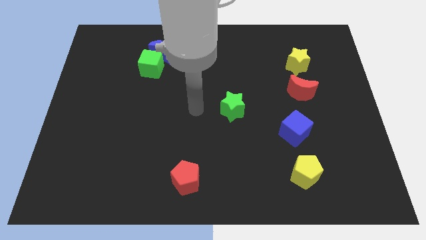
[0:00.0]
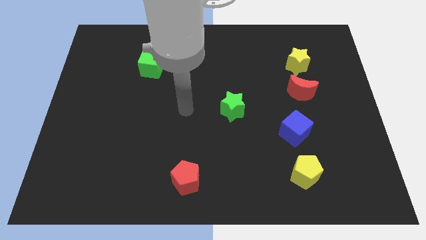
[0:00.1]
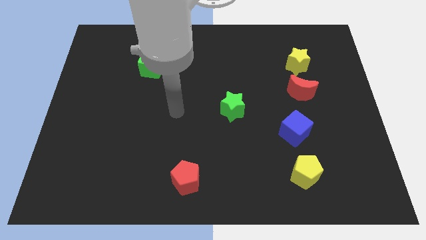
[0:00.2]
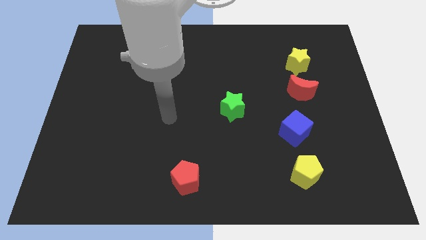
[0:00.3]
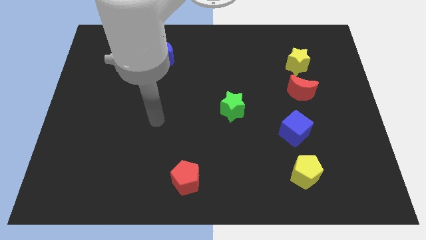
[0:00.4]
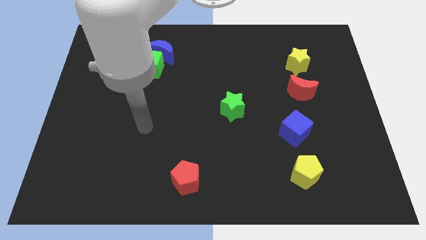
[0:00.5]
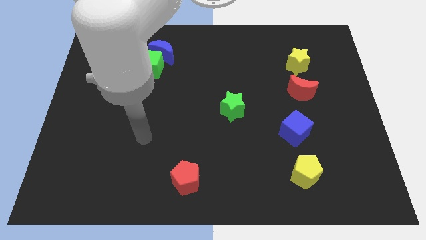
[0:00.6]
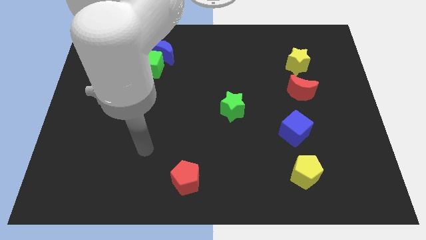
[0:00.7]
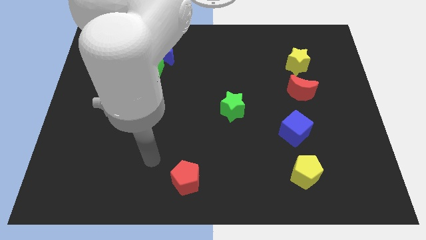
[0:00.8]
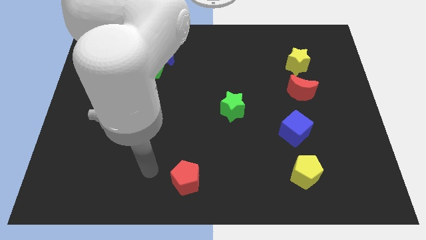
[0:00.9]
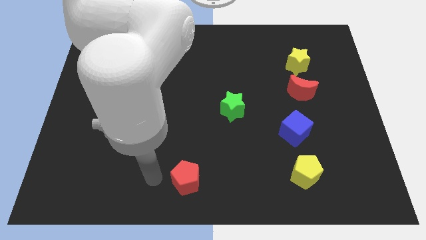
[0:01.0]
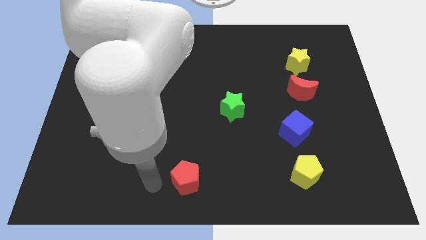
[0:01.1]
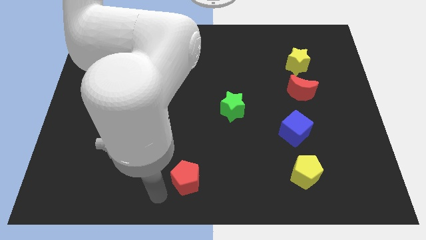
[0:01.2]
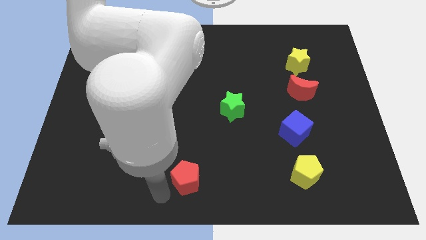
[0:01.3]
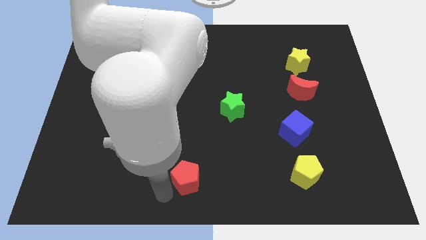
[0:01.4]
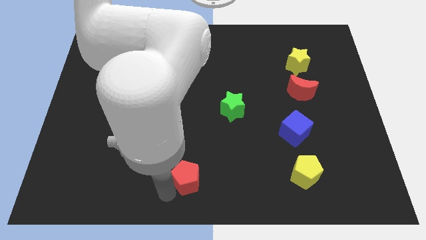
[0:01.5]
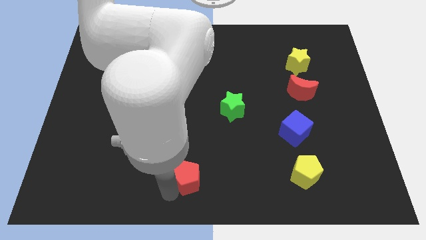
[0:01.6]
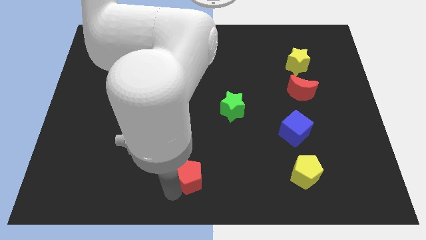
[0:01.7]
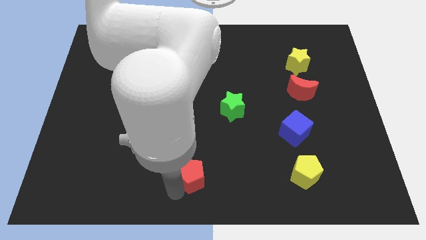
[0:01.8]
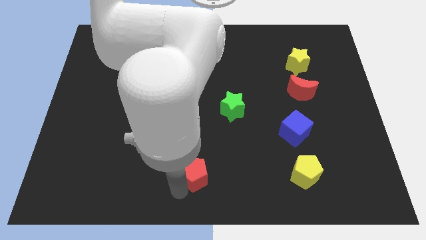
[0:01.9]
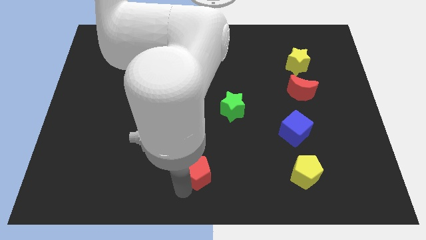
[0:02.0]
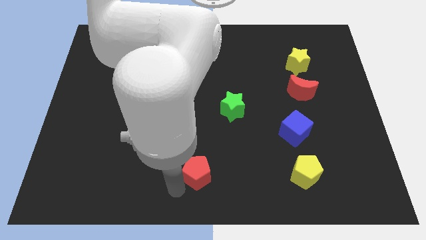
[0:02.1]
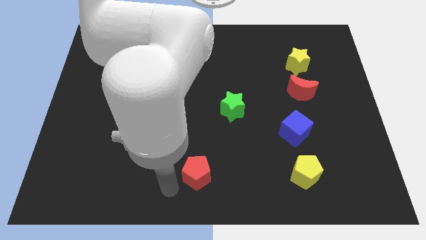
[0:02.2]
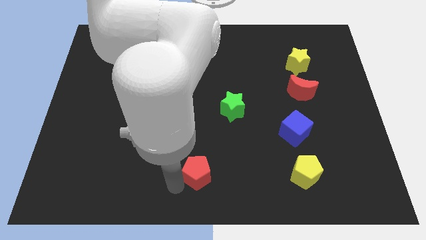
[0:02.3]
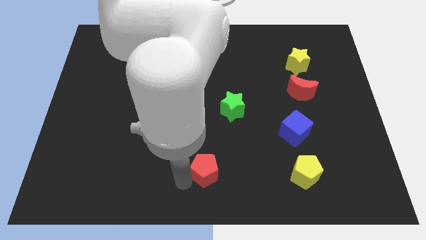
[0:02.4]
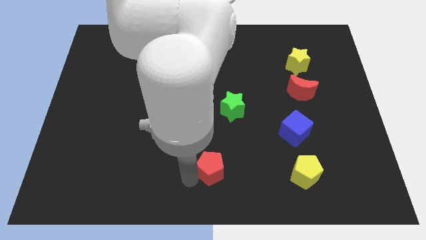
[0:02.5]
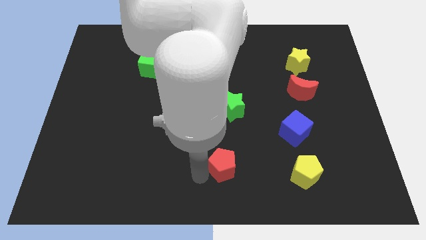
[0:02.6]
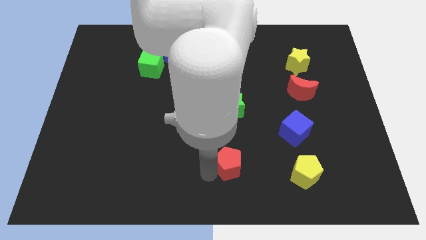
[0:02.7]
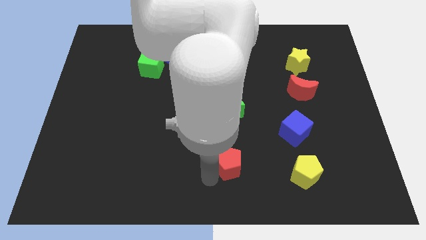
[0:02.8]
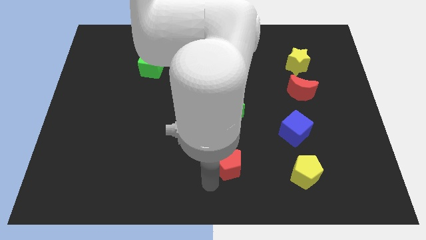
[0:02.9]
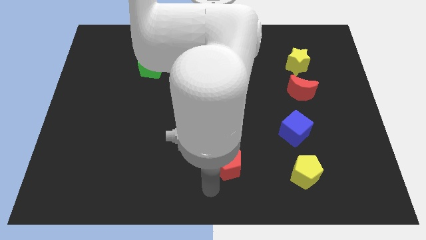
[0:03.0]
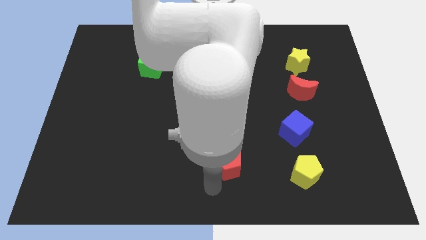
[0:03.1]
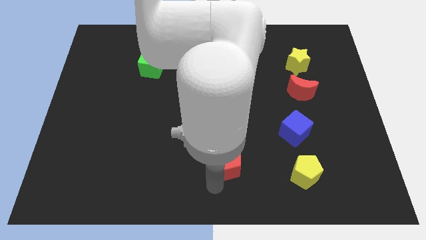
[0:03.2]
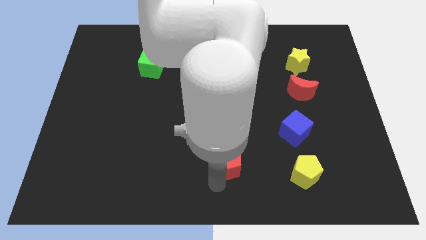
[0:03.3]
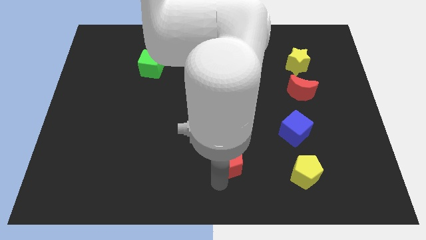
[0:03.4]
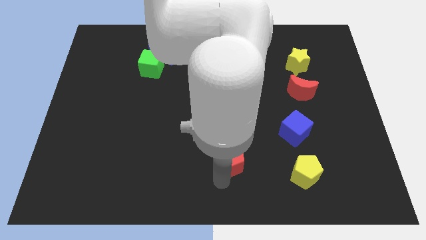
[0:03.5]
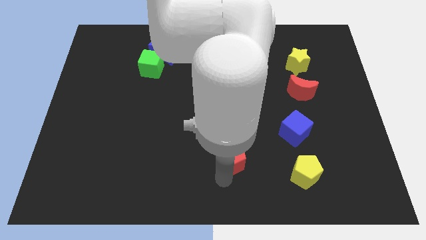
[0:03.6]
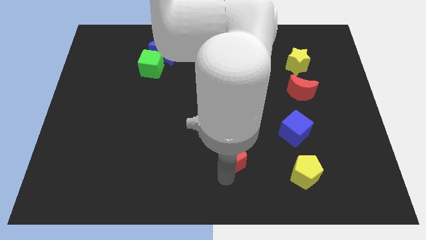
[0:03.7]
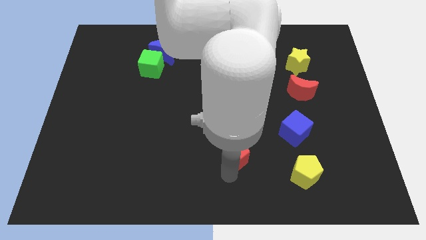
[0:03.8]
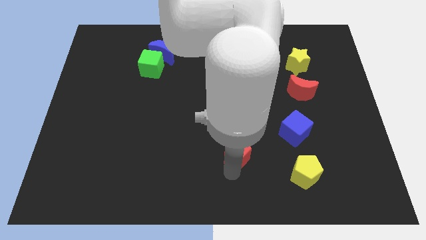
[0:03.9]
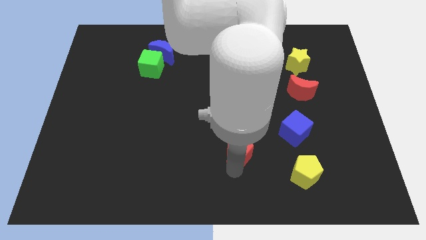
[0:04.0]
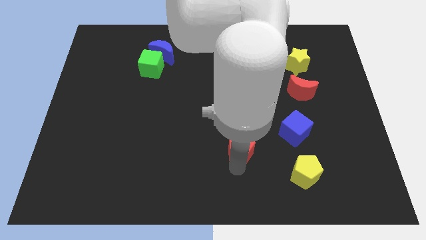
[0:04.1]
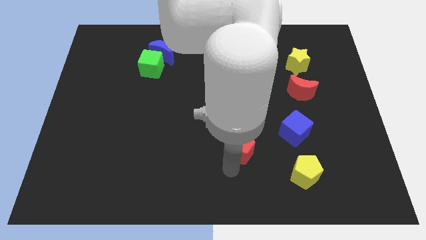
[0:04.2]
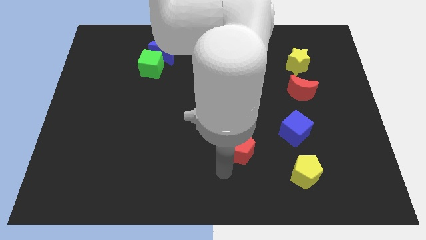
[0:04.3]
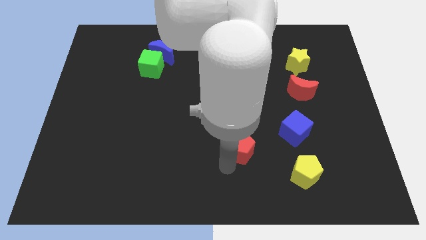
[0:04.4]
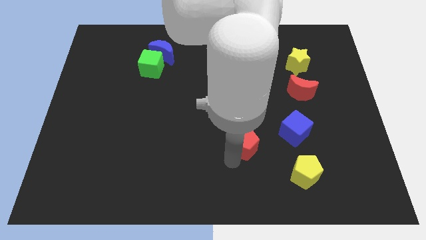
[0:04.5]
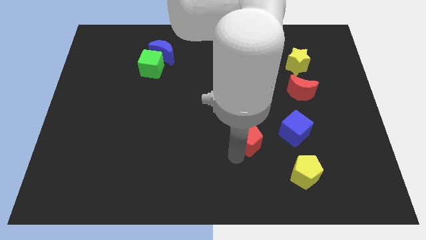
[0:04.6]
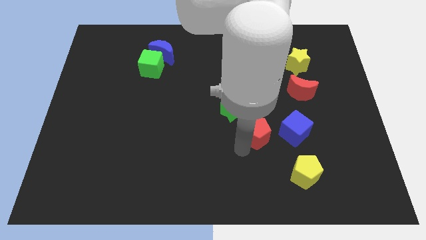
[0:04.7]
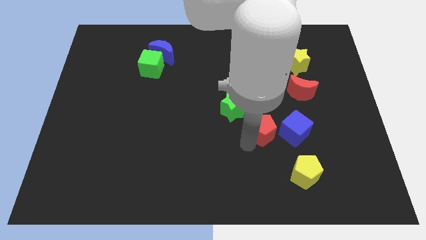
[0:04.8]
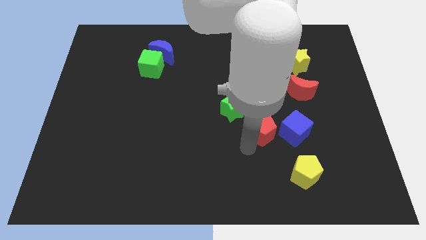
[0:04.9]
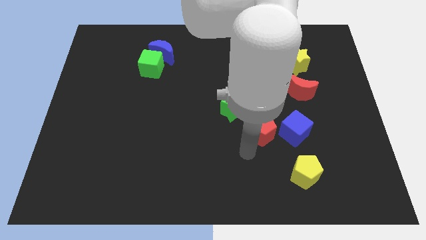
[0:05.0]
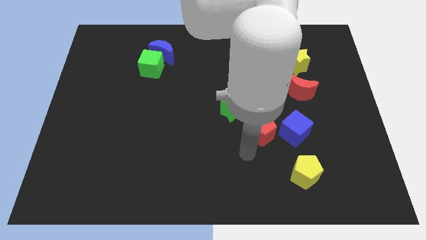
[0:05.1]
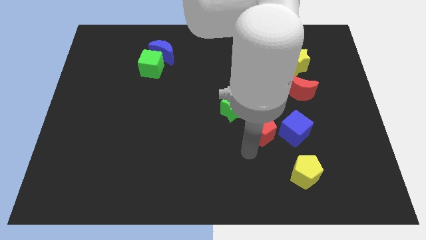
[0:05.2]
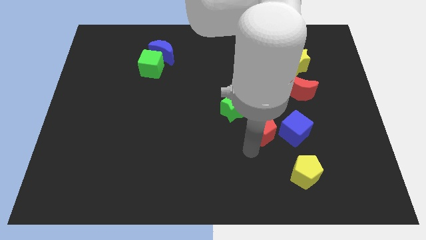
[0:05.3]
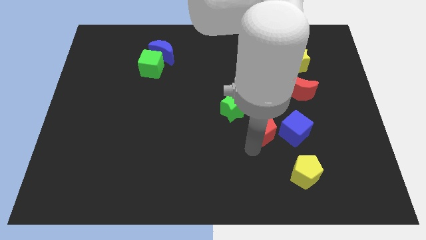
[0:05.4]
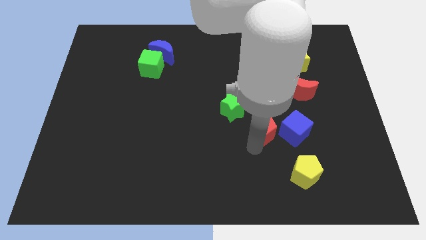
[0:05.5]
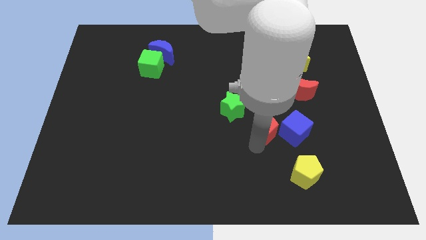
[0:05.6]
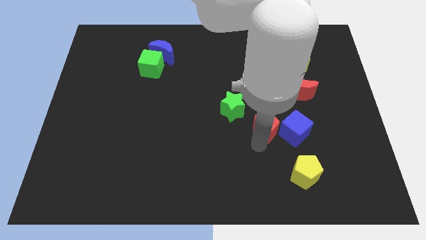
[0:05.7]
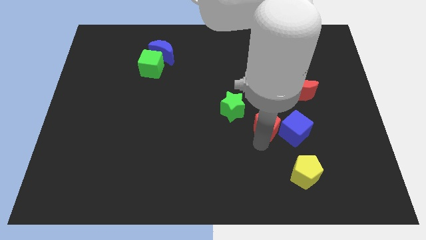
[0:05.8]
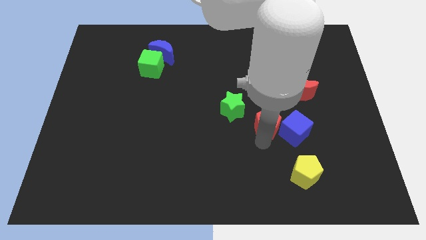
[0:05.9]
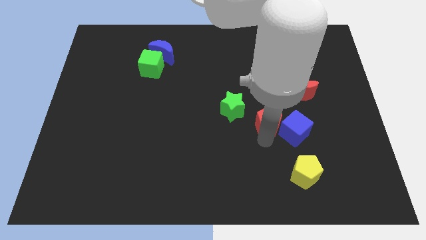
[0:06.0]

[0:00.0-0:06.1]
push the red pentagon to the bottom left of the red moon
